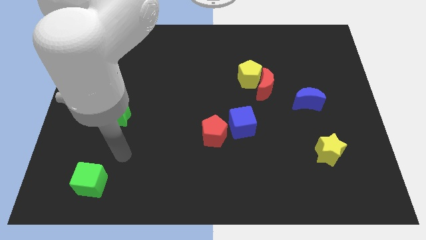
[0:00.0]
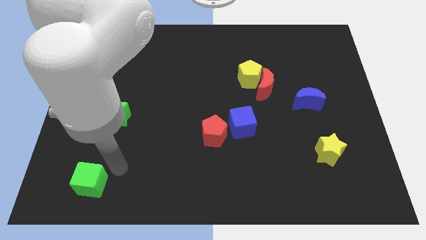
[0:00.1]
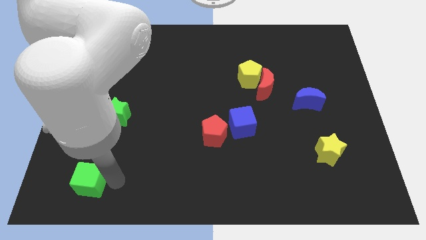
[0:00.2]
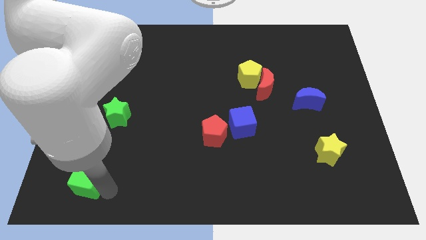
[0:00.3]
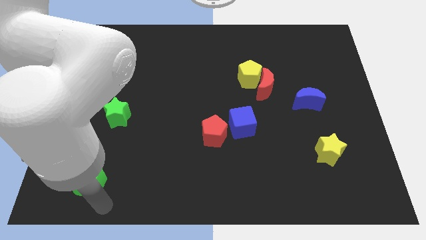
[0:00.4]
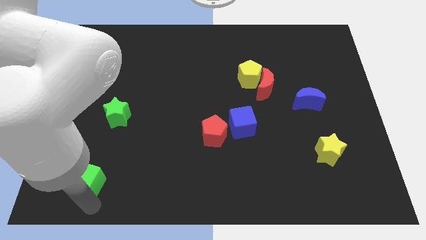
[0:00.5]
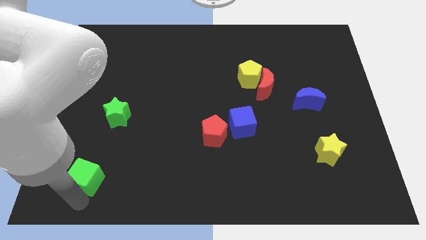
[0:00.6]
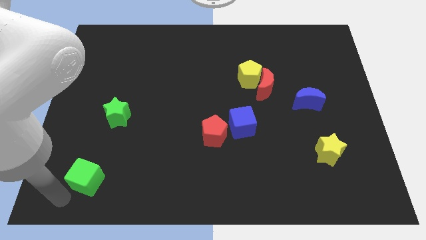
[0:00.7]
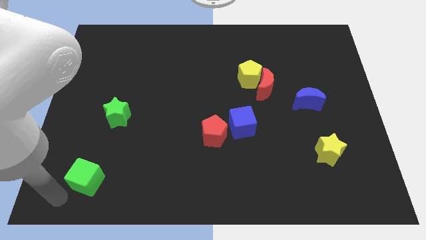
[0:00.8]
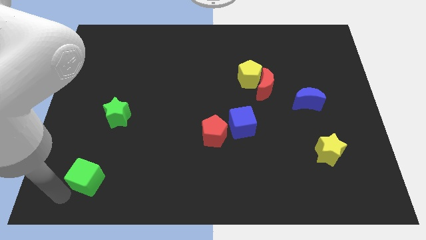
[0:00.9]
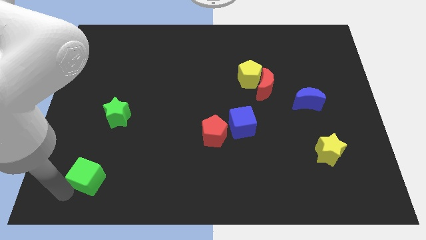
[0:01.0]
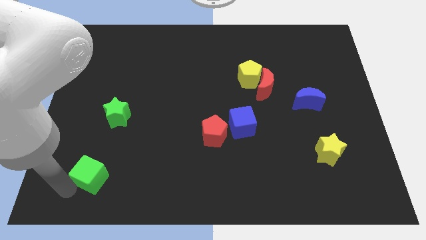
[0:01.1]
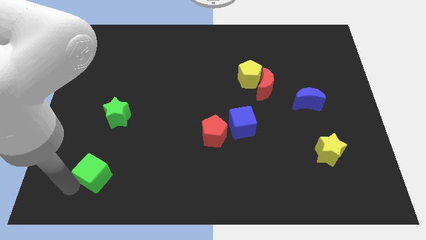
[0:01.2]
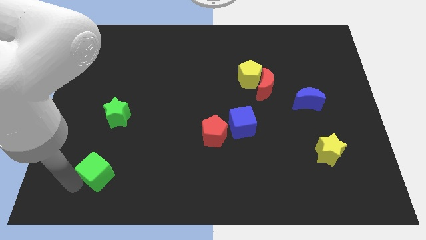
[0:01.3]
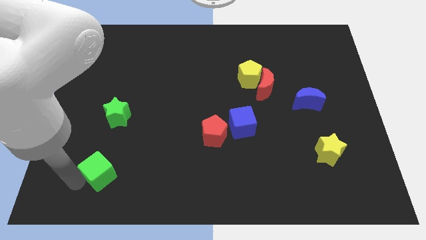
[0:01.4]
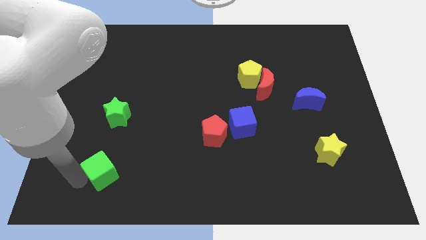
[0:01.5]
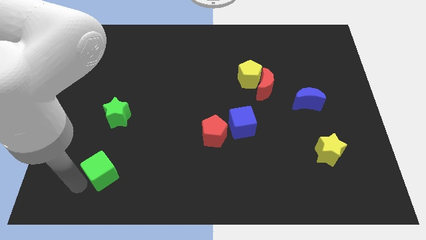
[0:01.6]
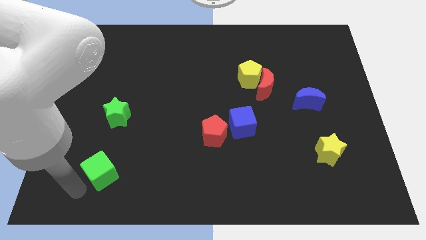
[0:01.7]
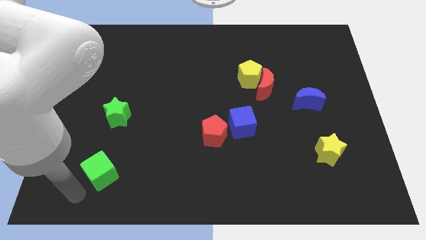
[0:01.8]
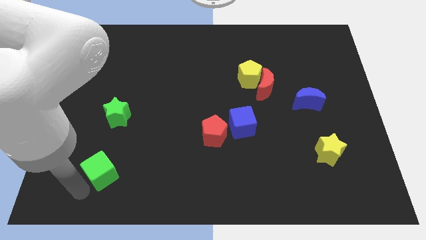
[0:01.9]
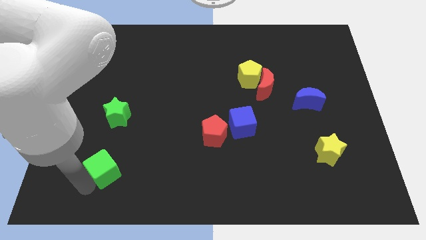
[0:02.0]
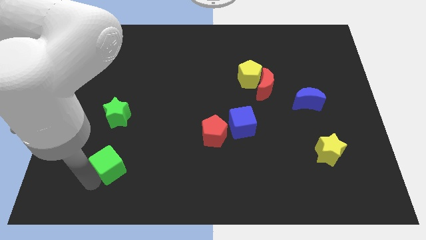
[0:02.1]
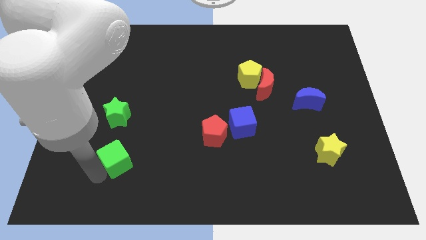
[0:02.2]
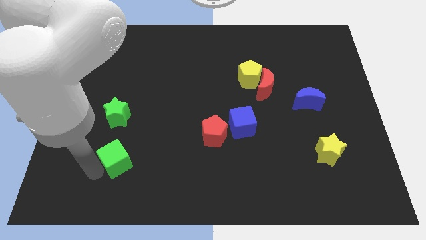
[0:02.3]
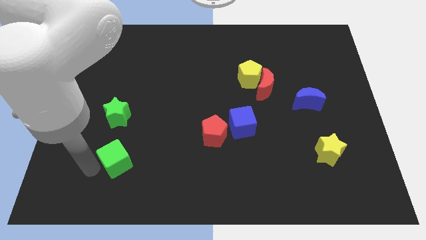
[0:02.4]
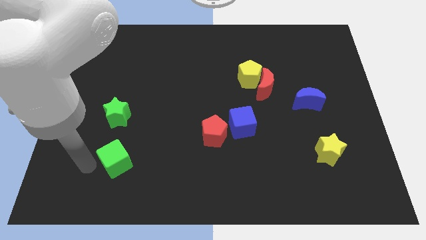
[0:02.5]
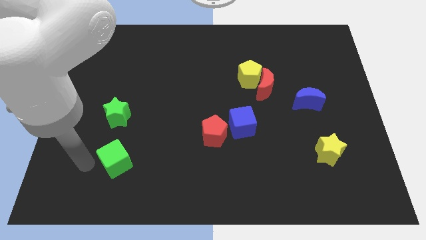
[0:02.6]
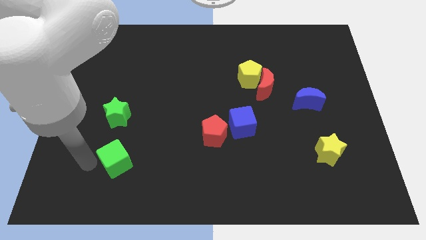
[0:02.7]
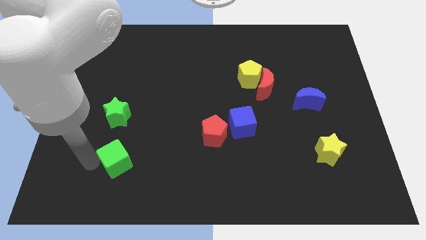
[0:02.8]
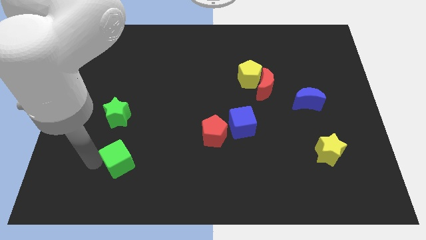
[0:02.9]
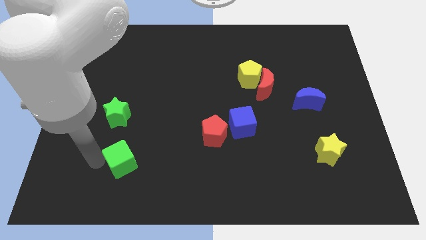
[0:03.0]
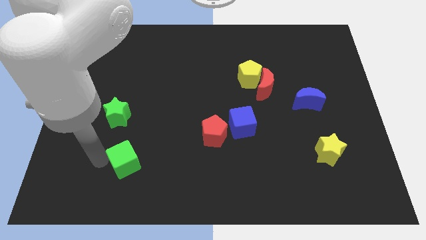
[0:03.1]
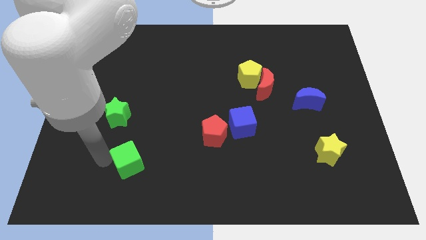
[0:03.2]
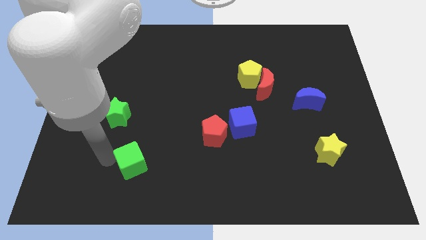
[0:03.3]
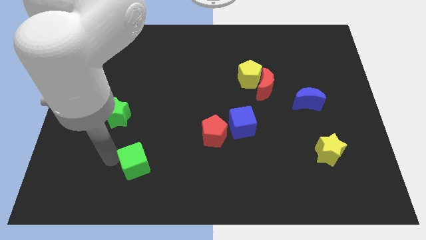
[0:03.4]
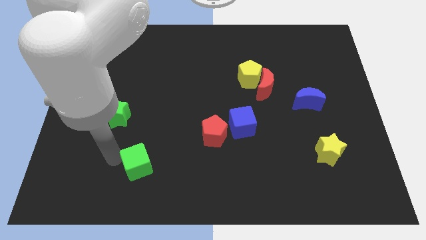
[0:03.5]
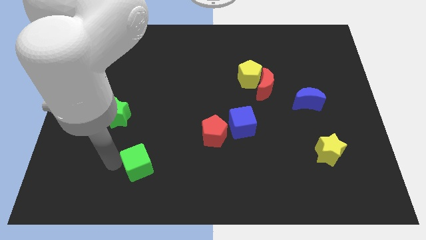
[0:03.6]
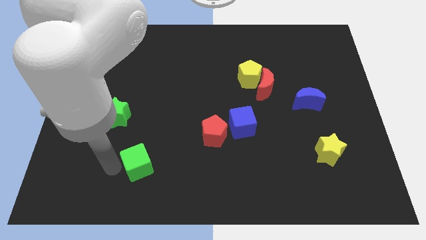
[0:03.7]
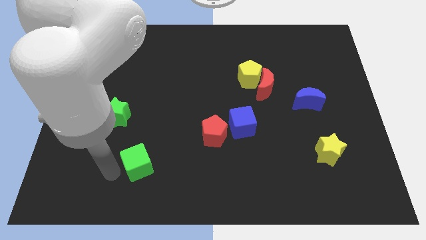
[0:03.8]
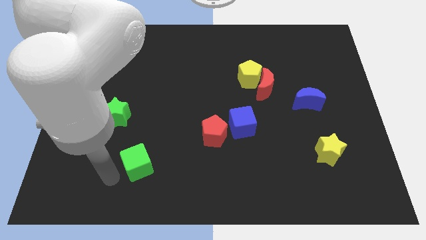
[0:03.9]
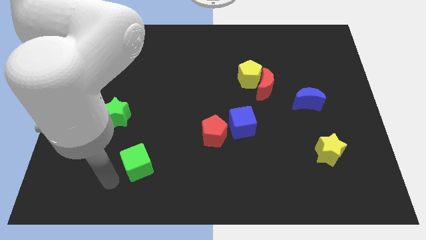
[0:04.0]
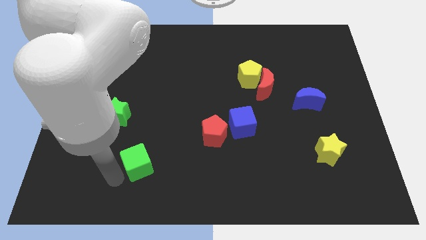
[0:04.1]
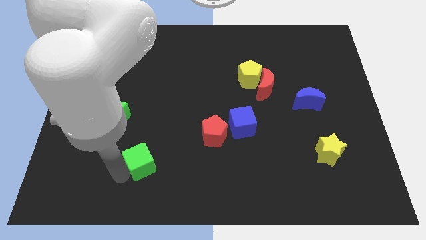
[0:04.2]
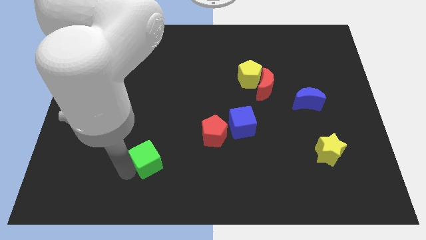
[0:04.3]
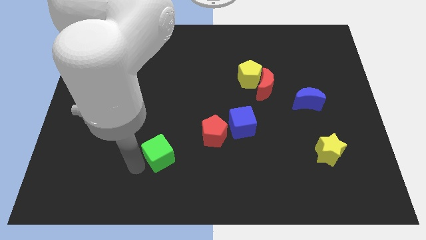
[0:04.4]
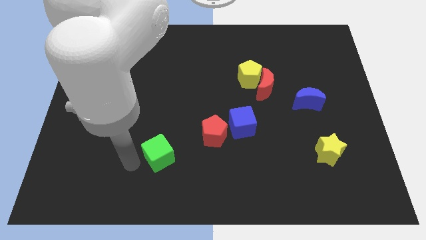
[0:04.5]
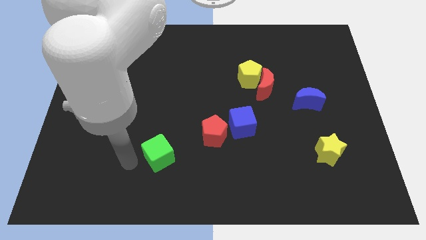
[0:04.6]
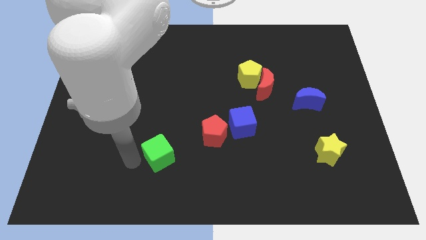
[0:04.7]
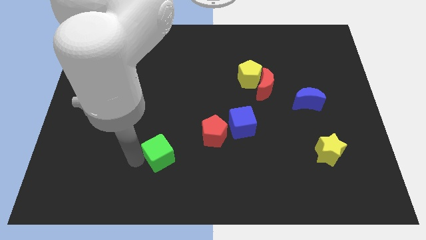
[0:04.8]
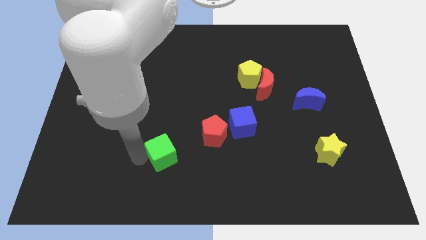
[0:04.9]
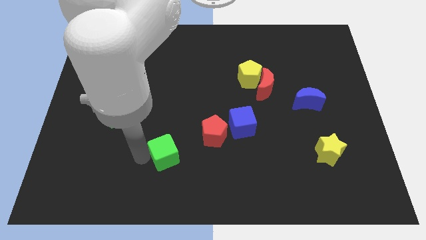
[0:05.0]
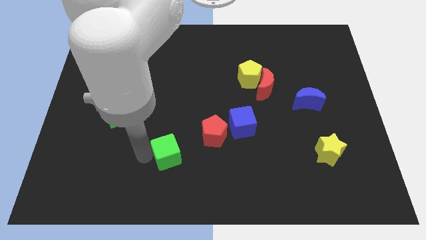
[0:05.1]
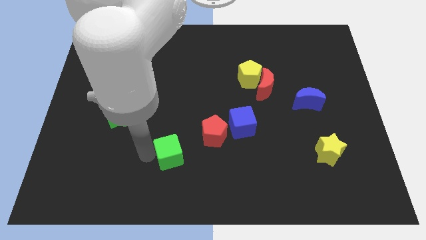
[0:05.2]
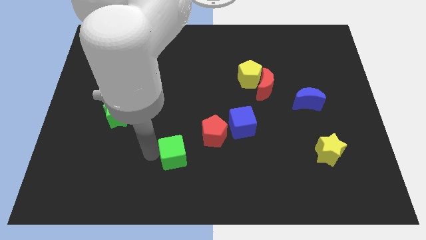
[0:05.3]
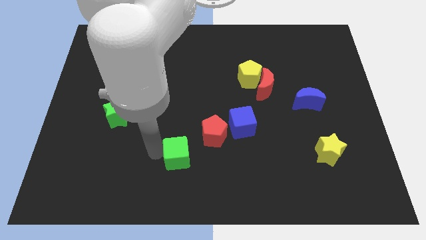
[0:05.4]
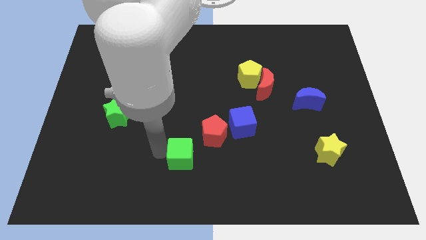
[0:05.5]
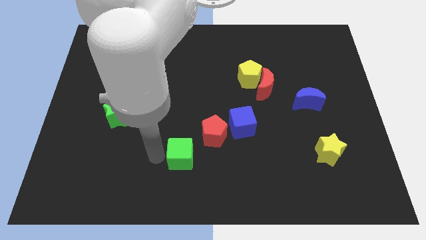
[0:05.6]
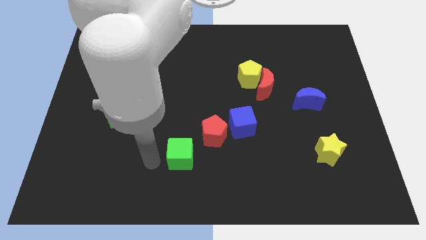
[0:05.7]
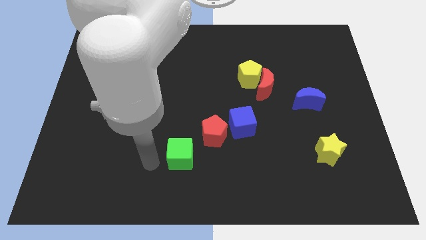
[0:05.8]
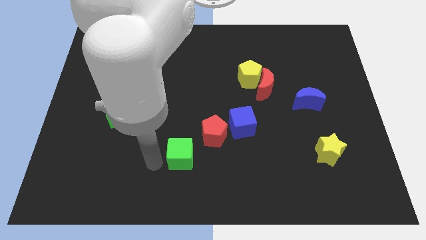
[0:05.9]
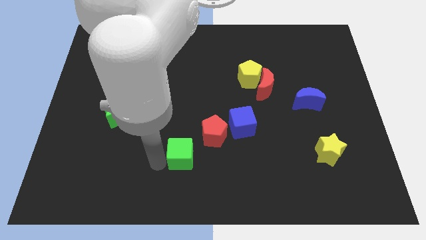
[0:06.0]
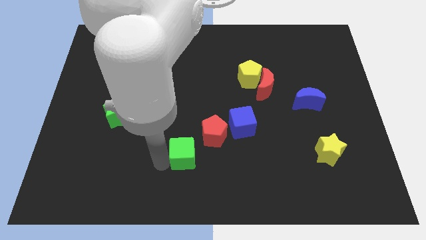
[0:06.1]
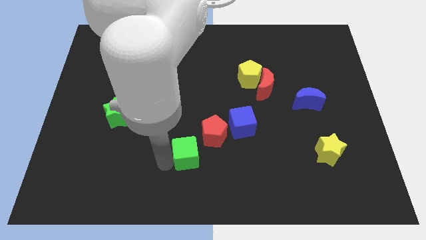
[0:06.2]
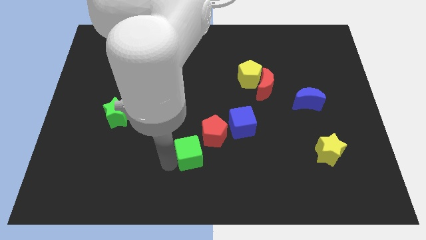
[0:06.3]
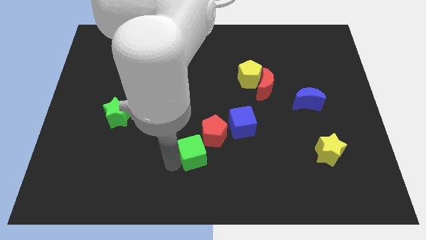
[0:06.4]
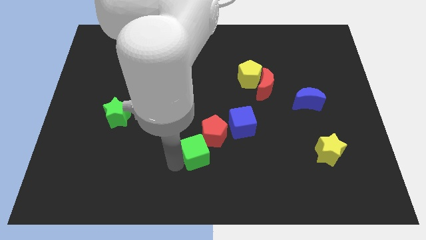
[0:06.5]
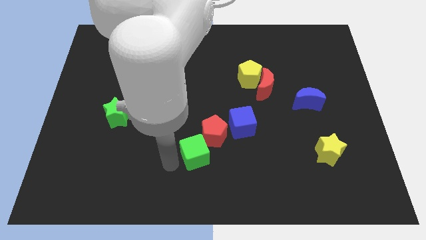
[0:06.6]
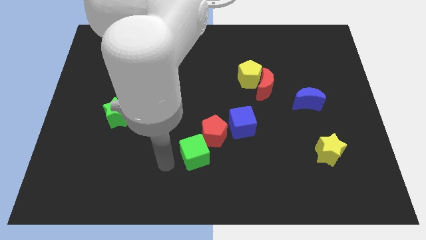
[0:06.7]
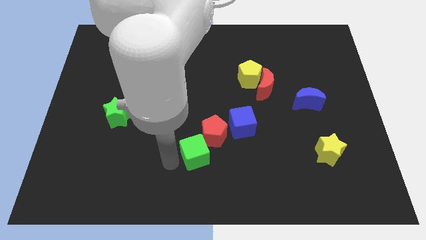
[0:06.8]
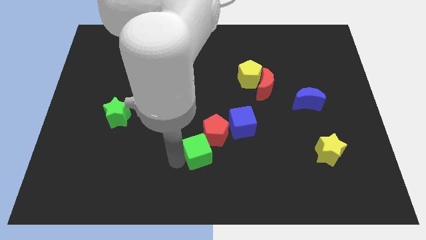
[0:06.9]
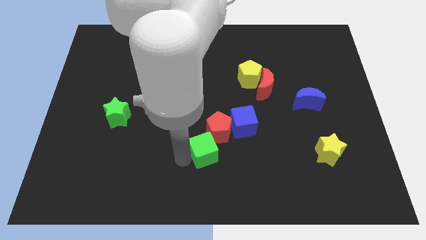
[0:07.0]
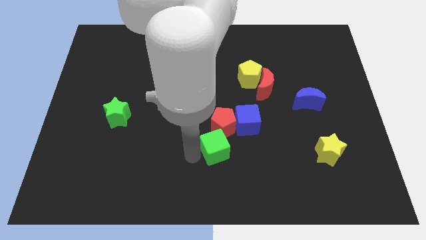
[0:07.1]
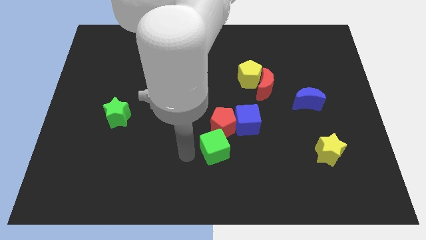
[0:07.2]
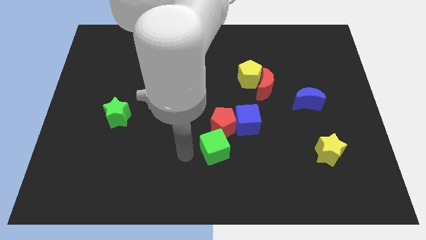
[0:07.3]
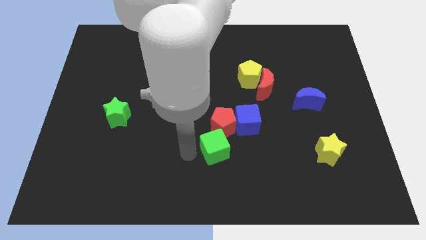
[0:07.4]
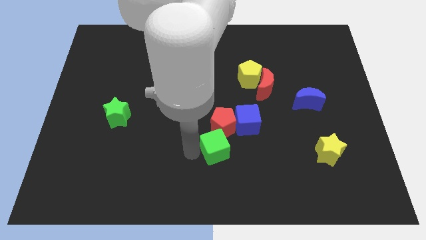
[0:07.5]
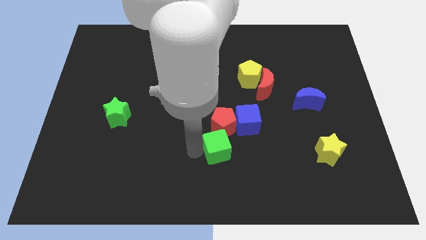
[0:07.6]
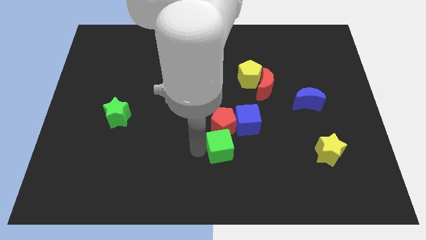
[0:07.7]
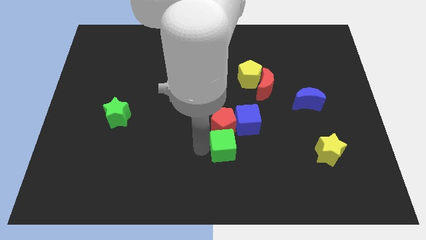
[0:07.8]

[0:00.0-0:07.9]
put the green cube to the bottom right side of the red pentagon
